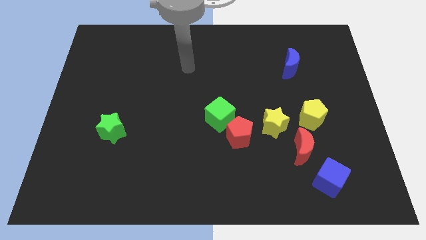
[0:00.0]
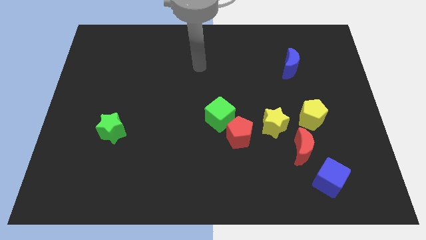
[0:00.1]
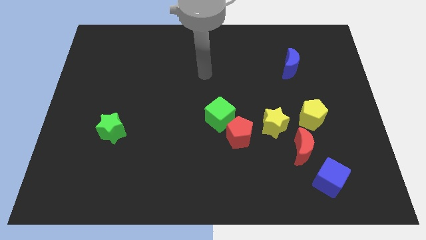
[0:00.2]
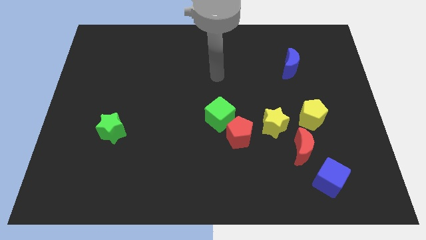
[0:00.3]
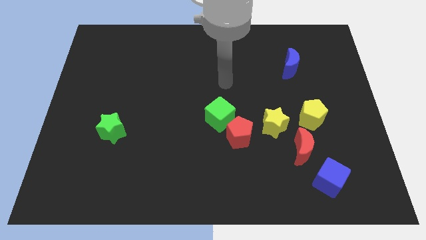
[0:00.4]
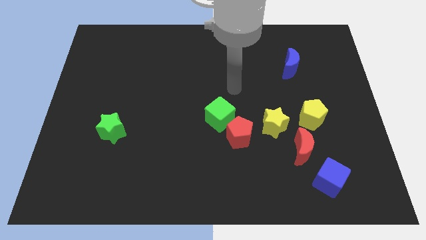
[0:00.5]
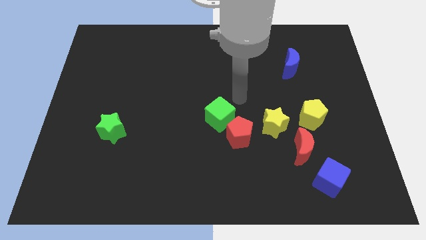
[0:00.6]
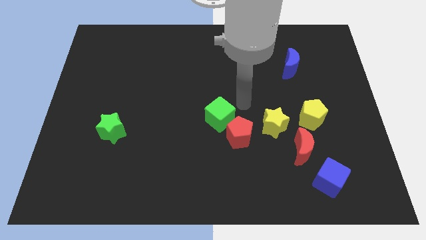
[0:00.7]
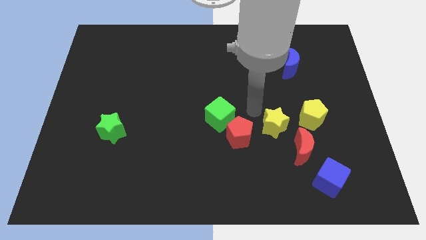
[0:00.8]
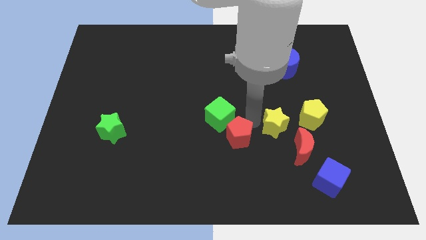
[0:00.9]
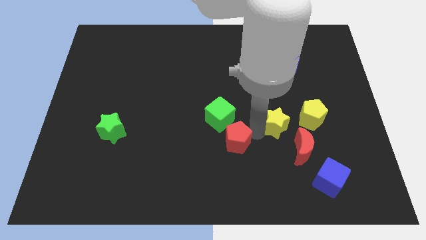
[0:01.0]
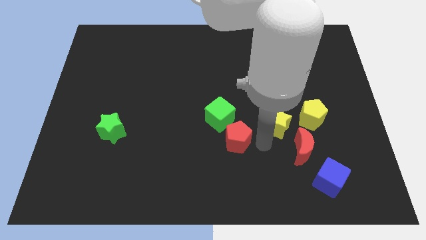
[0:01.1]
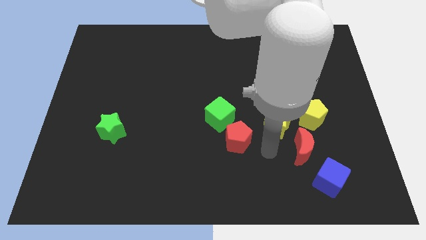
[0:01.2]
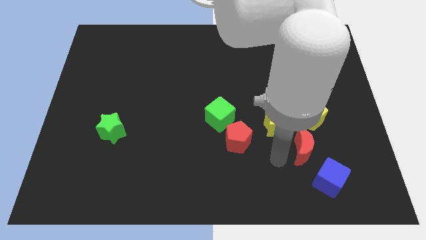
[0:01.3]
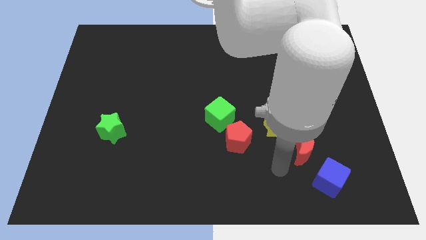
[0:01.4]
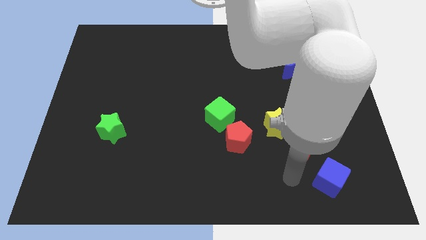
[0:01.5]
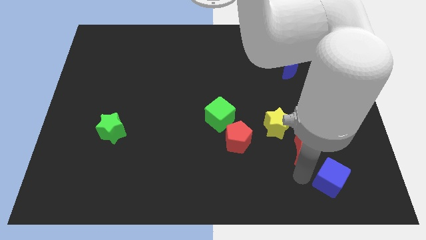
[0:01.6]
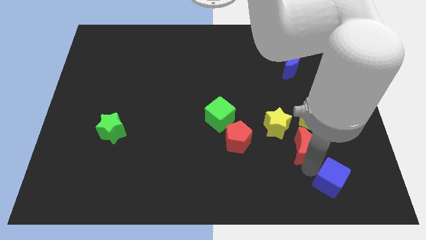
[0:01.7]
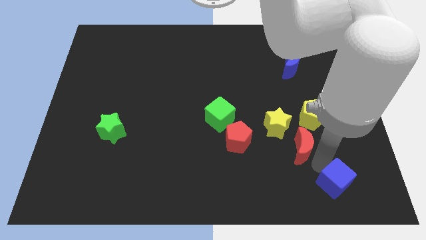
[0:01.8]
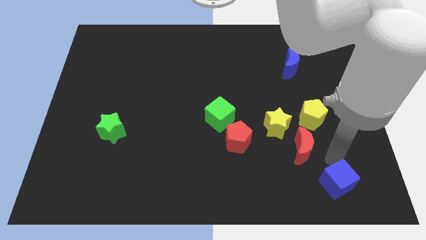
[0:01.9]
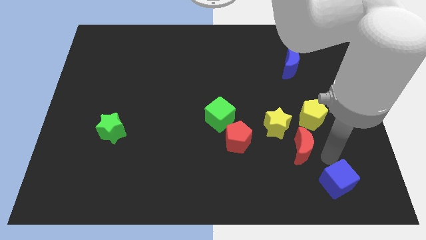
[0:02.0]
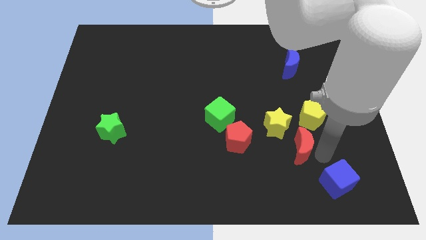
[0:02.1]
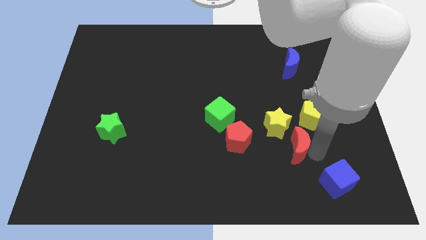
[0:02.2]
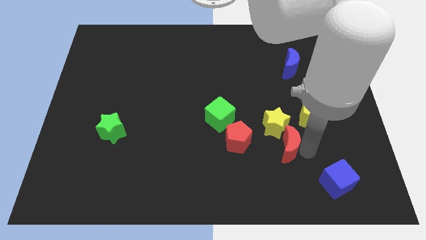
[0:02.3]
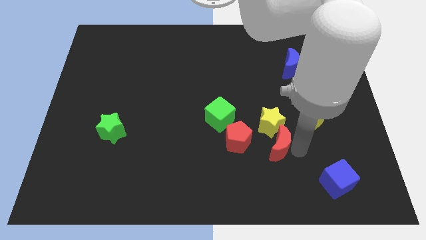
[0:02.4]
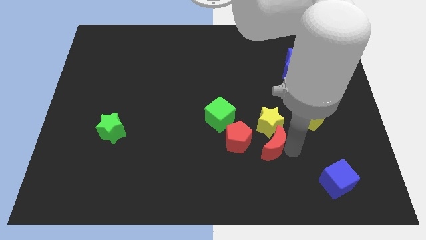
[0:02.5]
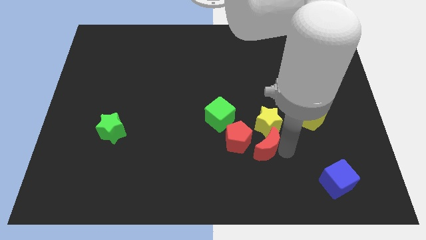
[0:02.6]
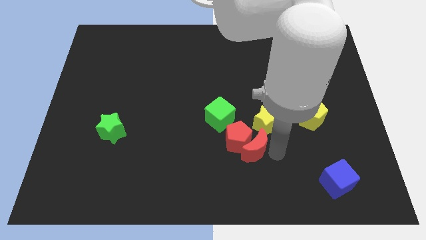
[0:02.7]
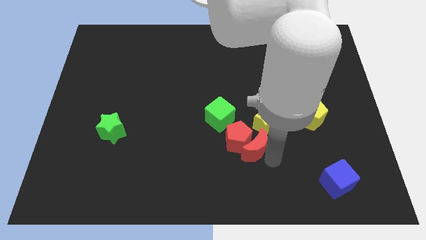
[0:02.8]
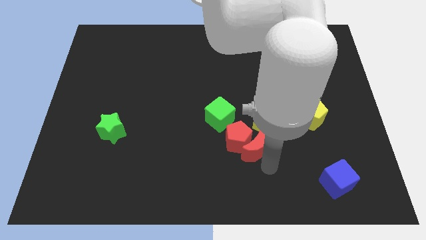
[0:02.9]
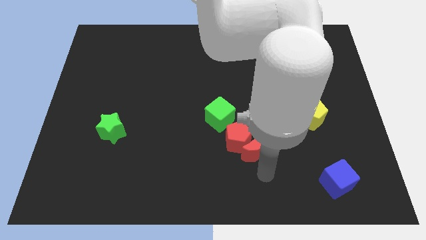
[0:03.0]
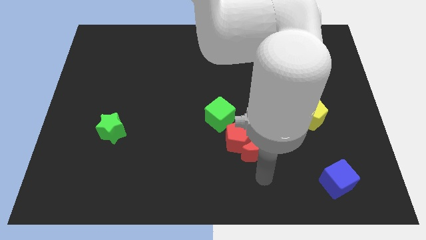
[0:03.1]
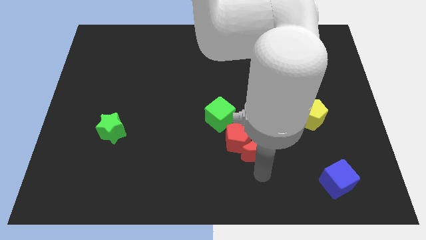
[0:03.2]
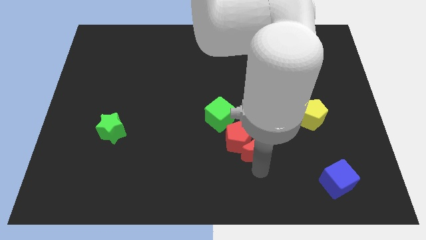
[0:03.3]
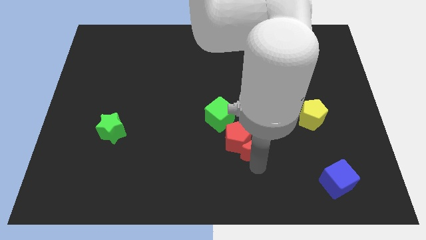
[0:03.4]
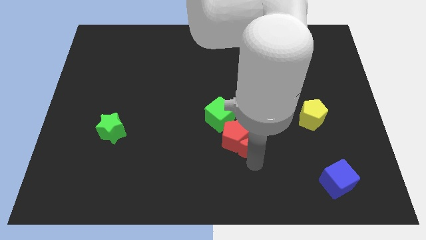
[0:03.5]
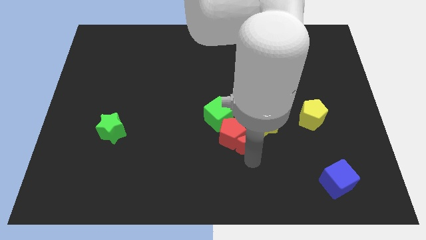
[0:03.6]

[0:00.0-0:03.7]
move the red moon upwards and left slightly

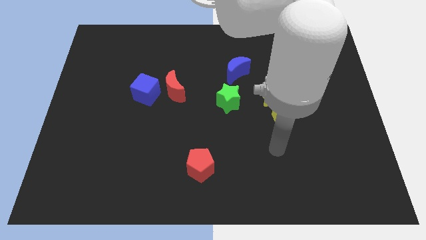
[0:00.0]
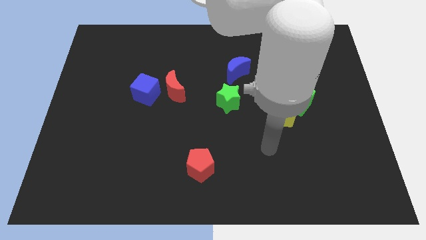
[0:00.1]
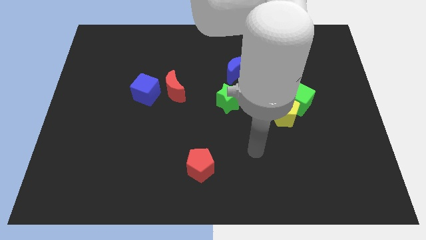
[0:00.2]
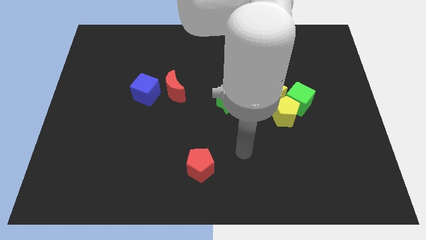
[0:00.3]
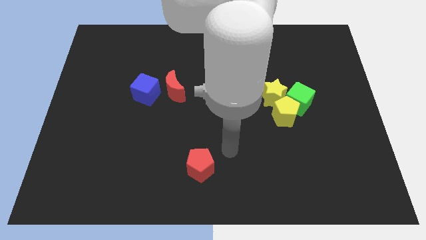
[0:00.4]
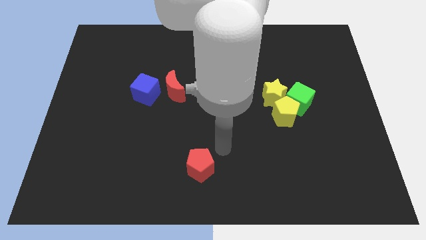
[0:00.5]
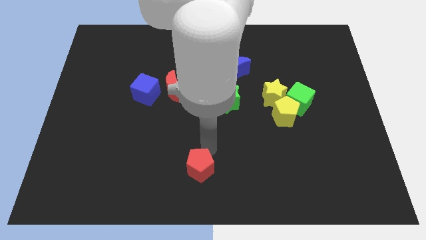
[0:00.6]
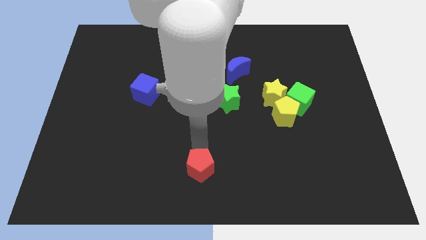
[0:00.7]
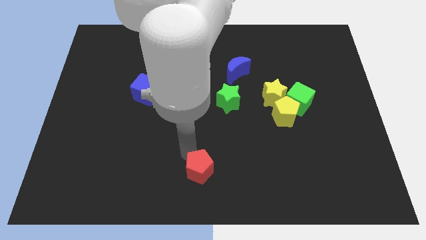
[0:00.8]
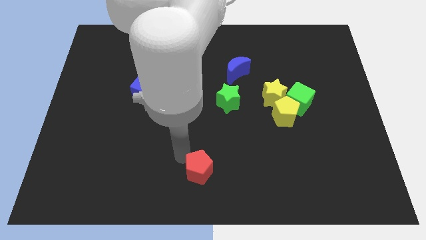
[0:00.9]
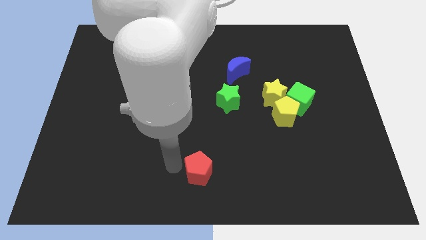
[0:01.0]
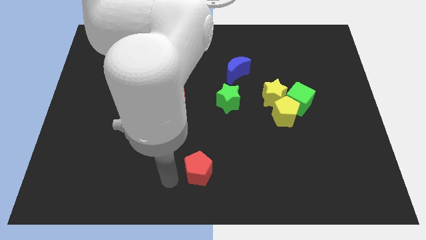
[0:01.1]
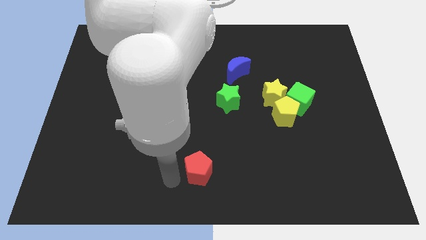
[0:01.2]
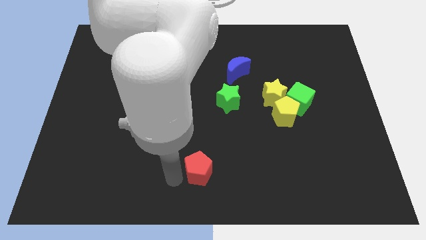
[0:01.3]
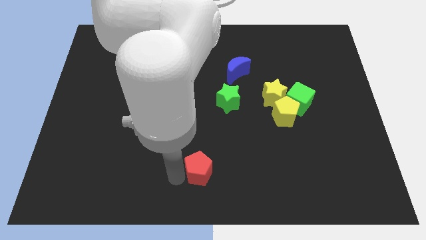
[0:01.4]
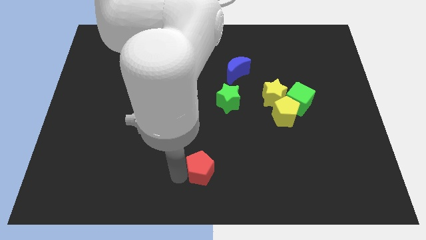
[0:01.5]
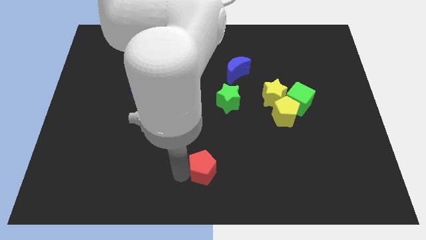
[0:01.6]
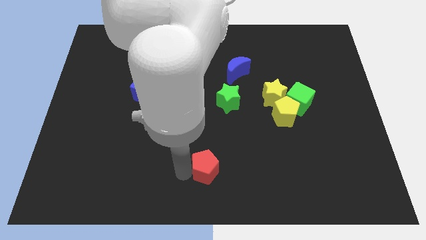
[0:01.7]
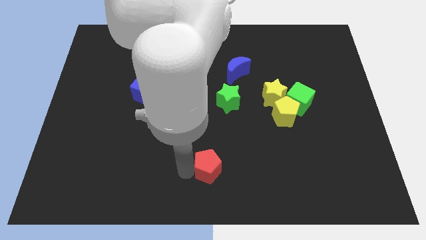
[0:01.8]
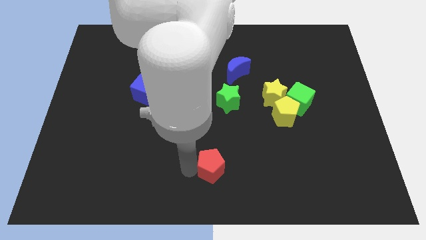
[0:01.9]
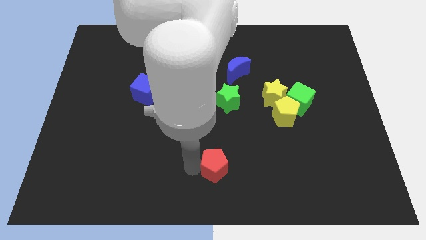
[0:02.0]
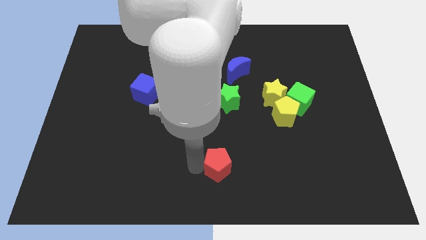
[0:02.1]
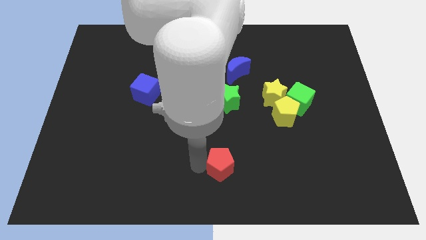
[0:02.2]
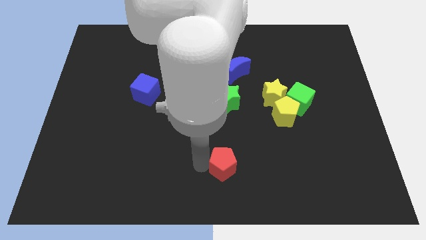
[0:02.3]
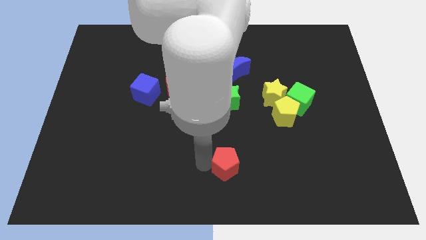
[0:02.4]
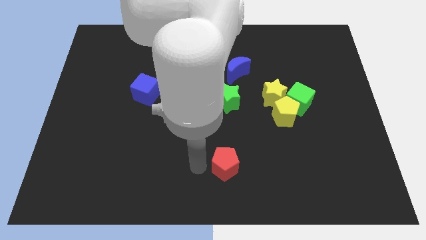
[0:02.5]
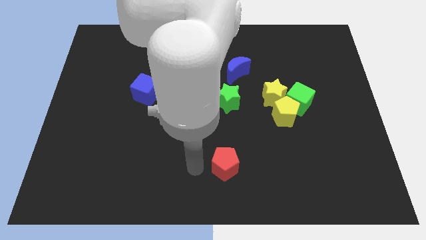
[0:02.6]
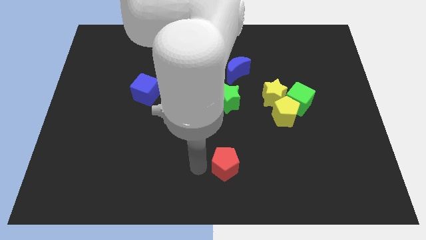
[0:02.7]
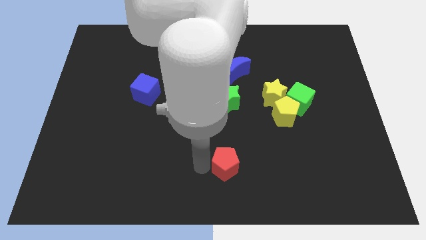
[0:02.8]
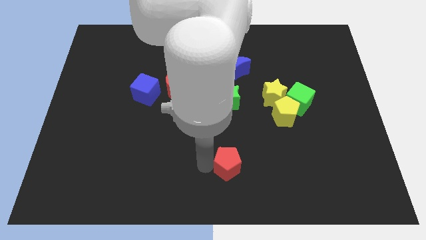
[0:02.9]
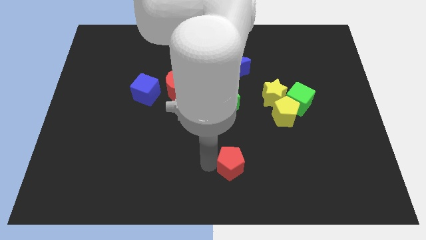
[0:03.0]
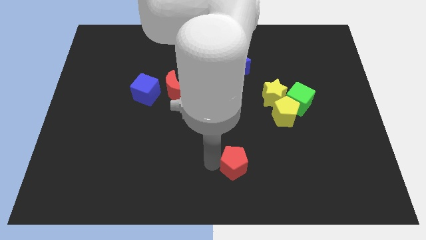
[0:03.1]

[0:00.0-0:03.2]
slightly move the red pentagon to the right

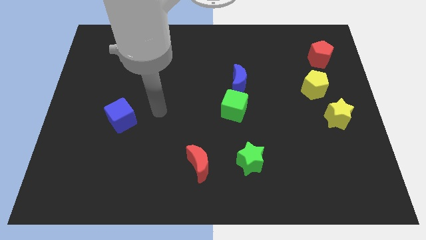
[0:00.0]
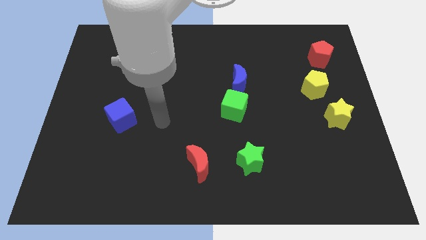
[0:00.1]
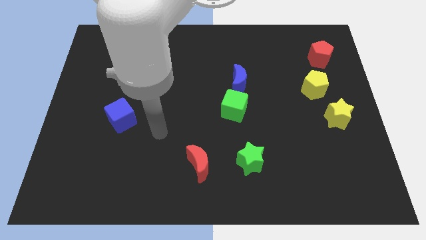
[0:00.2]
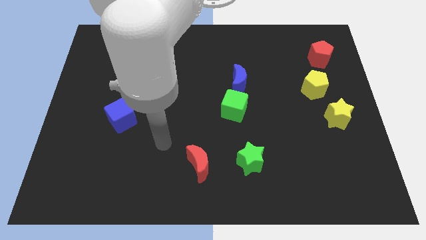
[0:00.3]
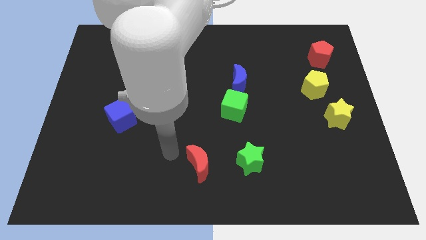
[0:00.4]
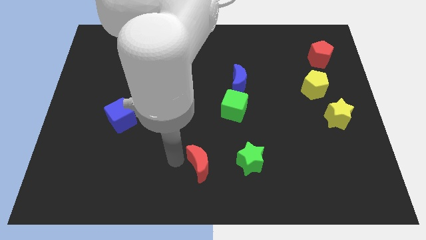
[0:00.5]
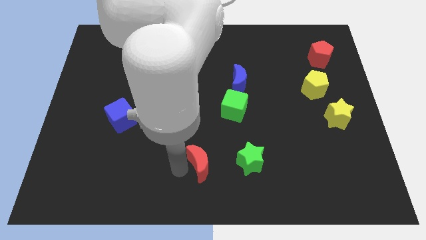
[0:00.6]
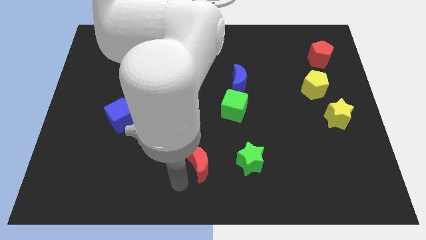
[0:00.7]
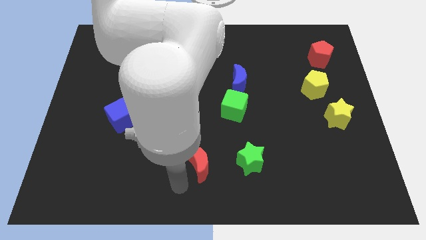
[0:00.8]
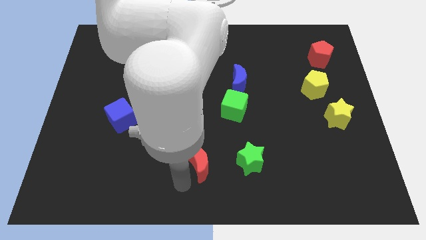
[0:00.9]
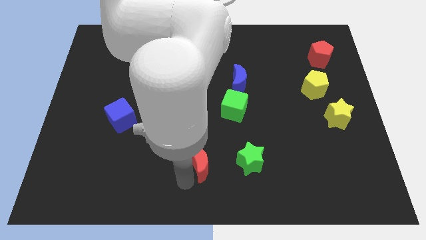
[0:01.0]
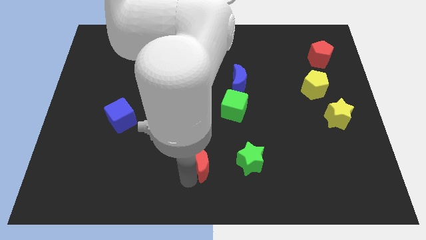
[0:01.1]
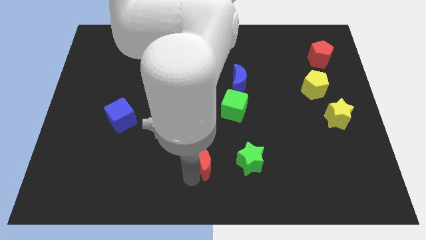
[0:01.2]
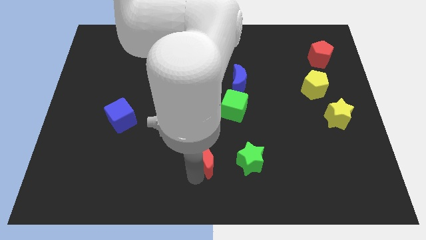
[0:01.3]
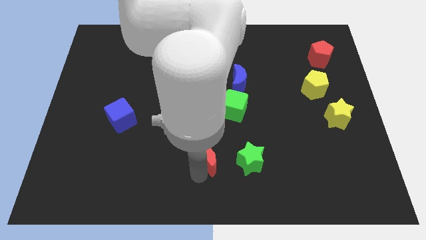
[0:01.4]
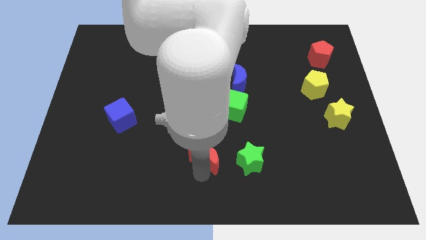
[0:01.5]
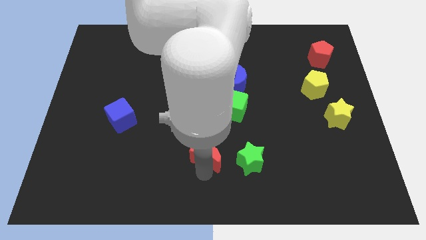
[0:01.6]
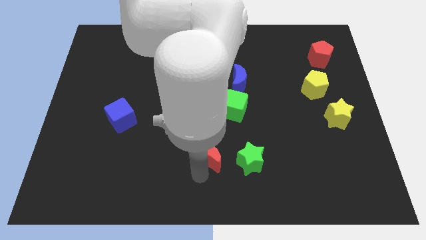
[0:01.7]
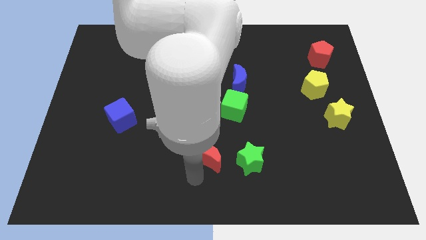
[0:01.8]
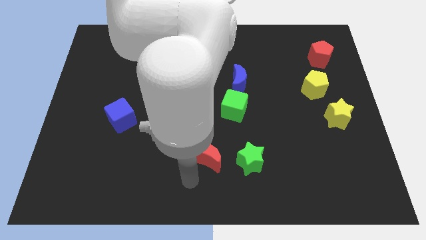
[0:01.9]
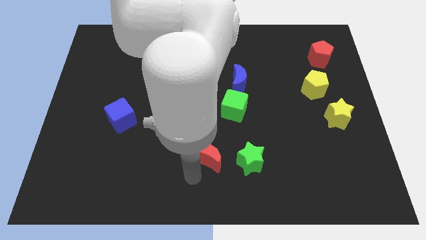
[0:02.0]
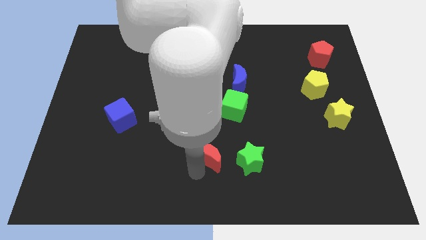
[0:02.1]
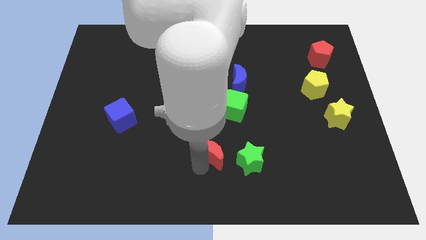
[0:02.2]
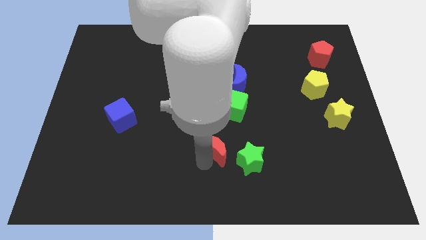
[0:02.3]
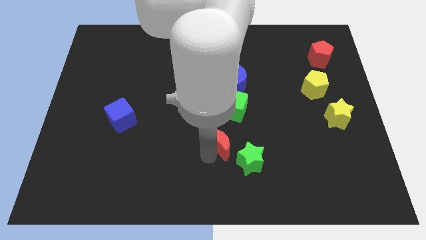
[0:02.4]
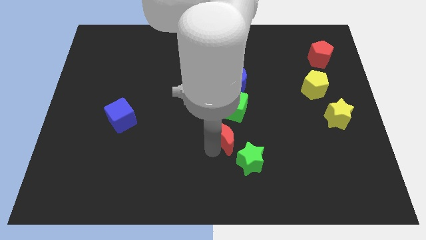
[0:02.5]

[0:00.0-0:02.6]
push the red moon upwards and to the right a little
